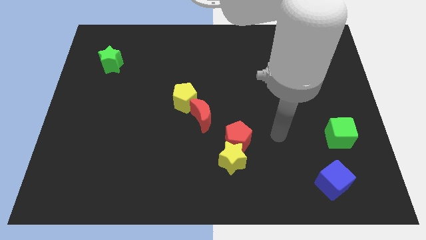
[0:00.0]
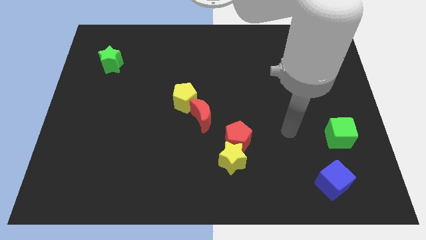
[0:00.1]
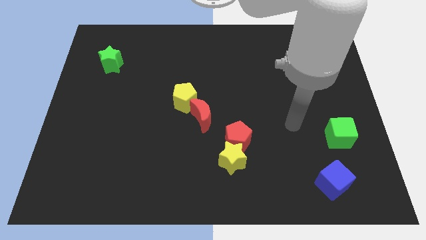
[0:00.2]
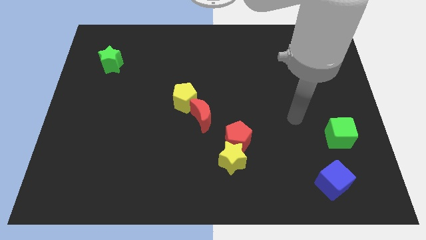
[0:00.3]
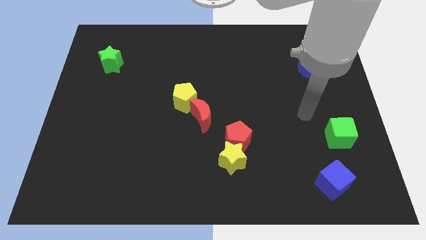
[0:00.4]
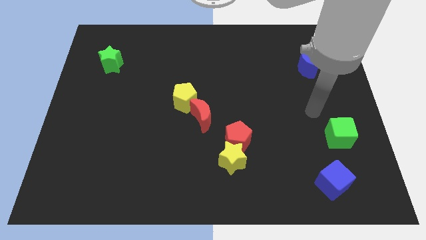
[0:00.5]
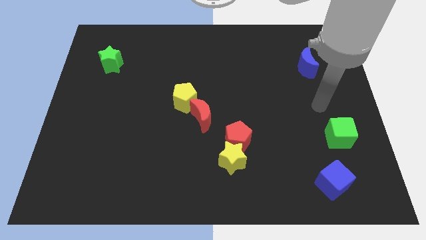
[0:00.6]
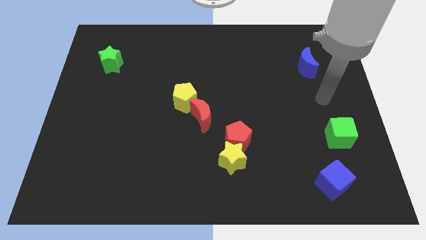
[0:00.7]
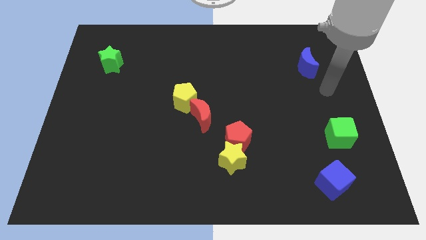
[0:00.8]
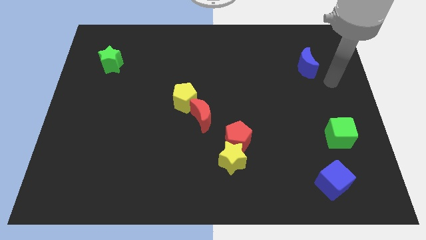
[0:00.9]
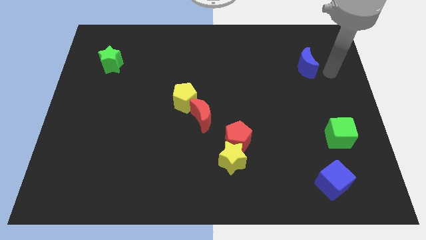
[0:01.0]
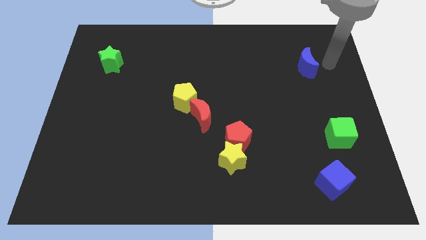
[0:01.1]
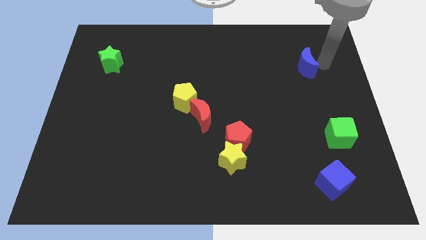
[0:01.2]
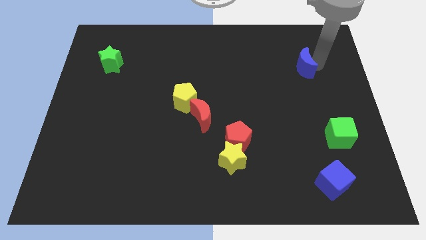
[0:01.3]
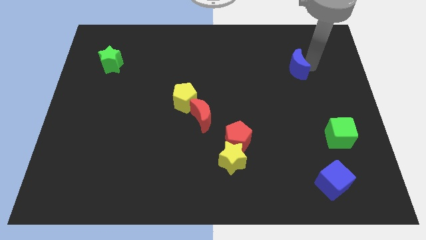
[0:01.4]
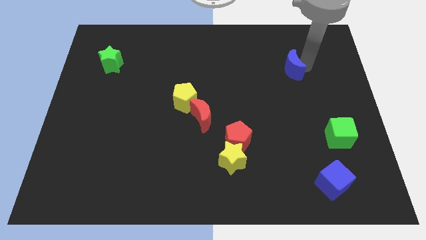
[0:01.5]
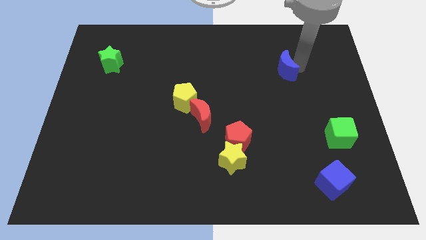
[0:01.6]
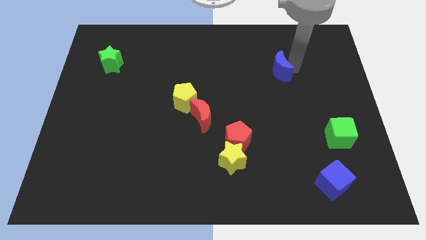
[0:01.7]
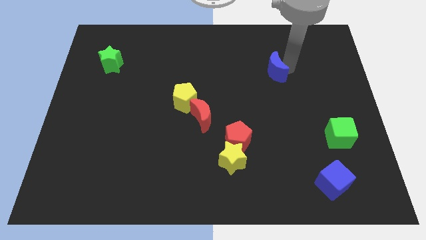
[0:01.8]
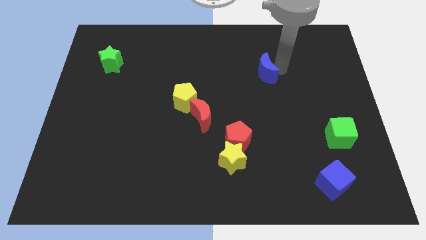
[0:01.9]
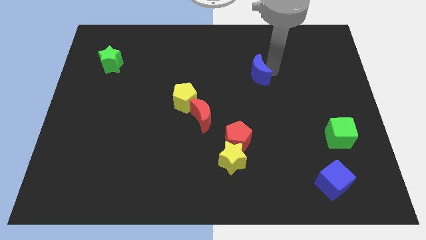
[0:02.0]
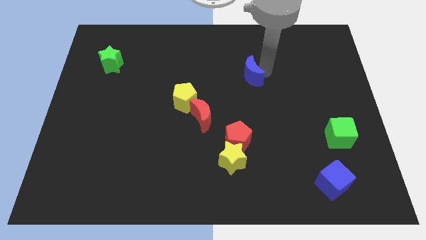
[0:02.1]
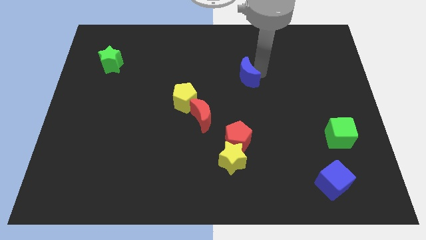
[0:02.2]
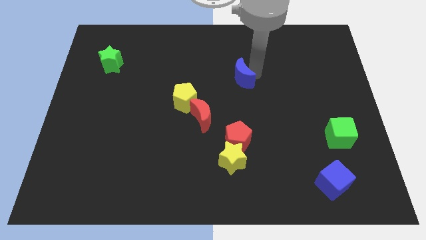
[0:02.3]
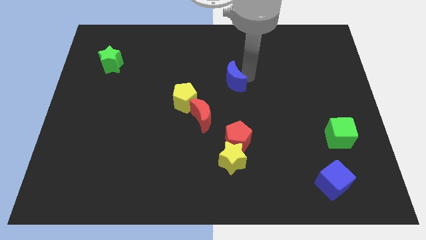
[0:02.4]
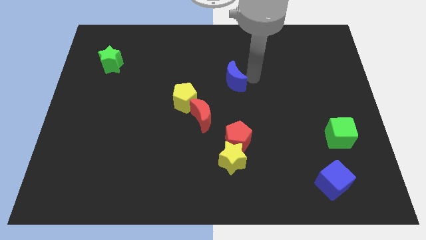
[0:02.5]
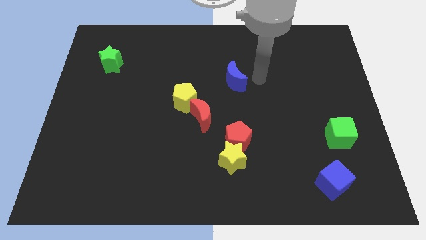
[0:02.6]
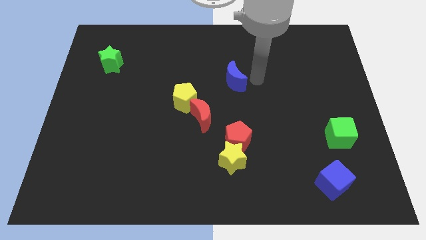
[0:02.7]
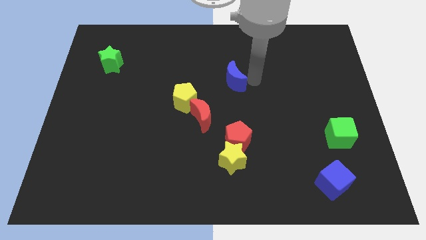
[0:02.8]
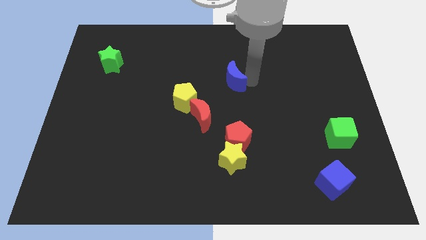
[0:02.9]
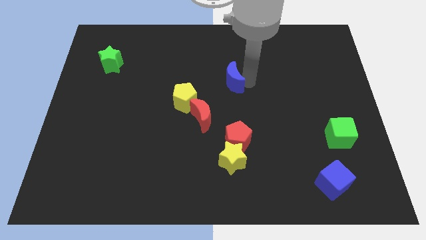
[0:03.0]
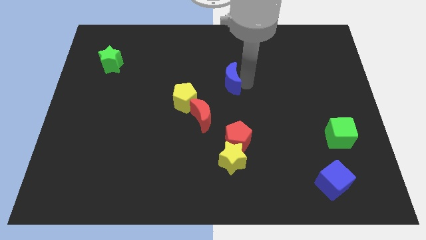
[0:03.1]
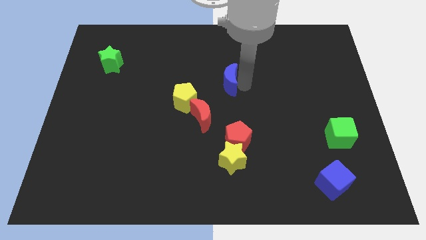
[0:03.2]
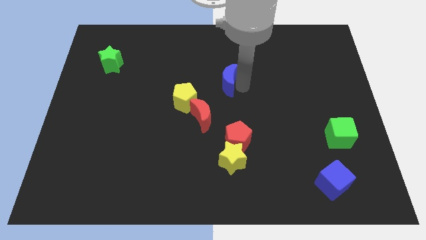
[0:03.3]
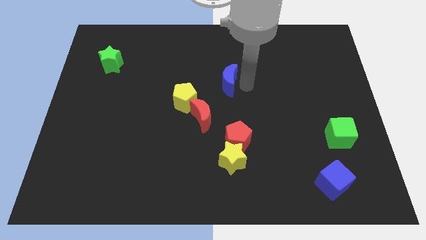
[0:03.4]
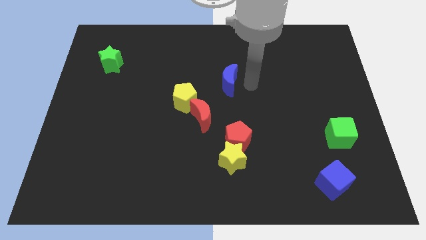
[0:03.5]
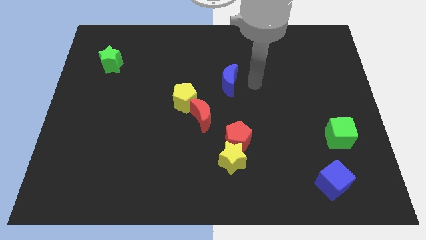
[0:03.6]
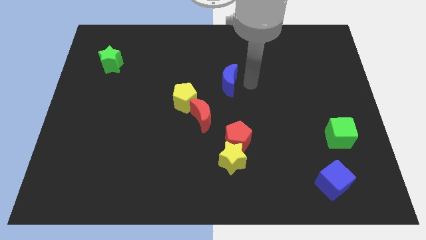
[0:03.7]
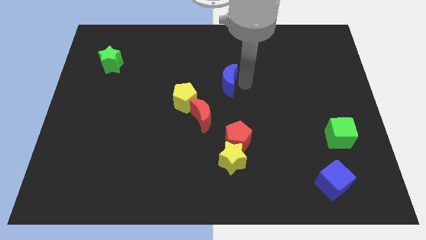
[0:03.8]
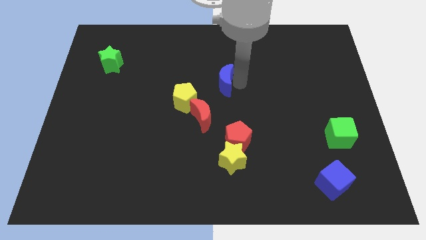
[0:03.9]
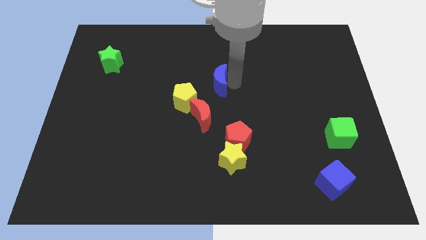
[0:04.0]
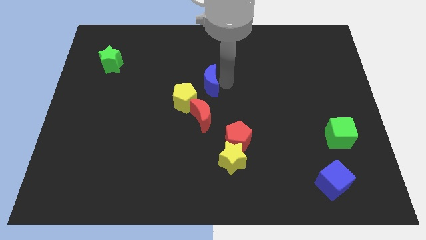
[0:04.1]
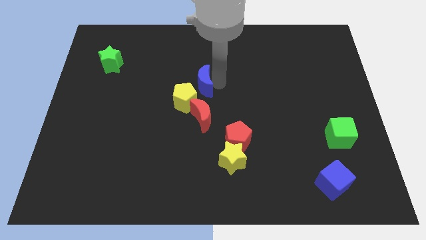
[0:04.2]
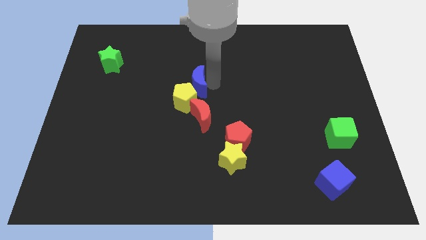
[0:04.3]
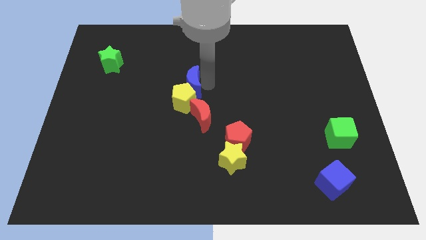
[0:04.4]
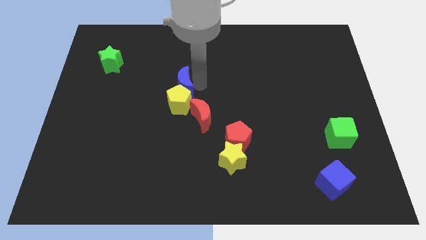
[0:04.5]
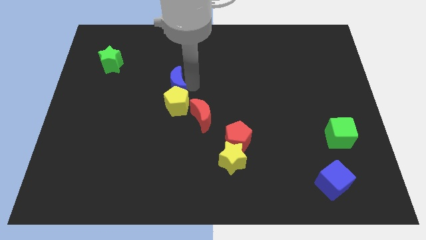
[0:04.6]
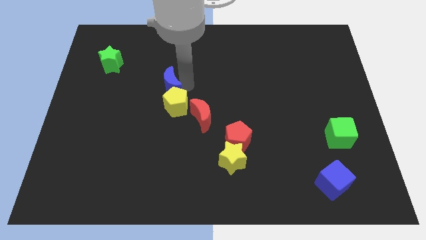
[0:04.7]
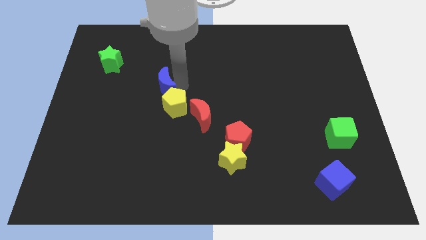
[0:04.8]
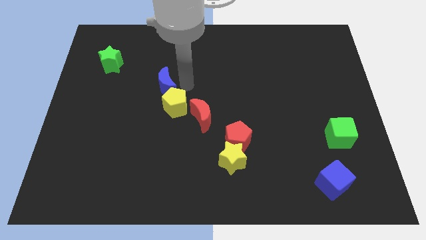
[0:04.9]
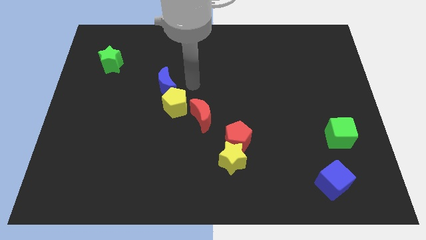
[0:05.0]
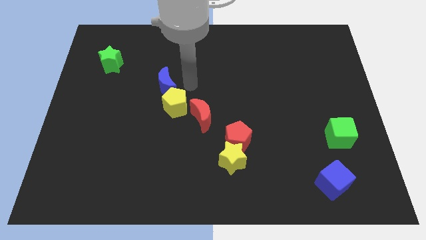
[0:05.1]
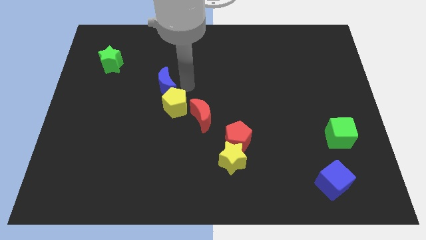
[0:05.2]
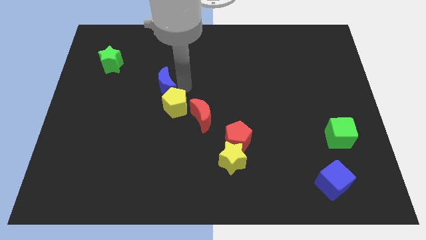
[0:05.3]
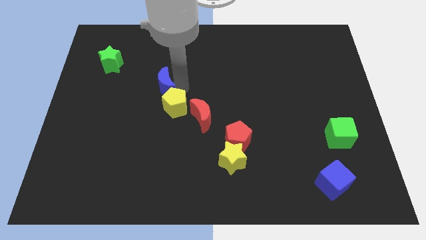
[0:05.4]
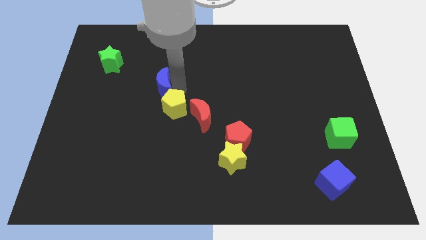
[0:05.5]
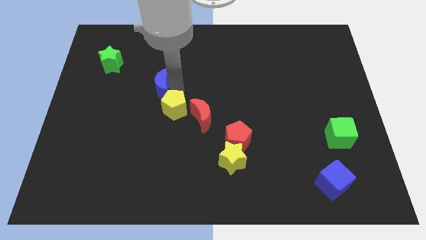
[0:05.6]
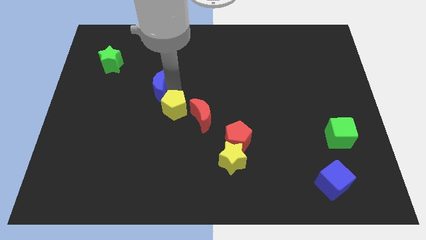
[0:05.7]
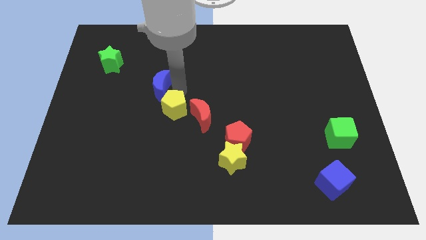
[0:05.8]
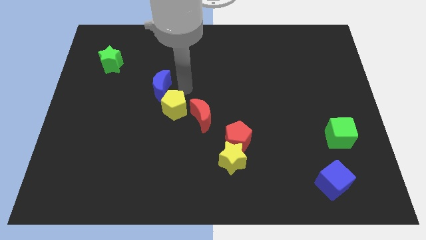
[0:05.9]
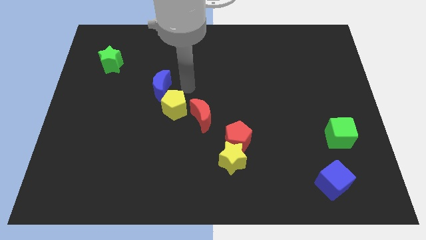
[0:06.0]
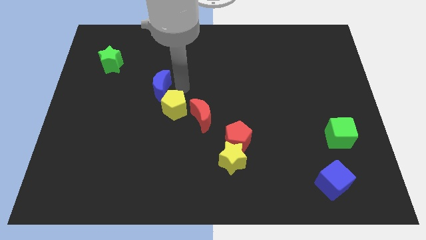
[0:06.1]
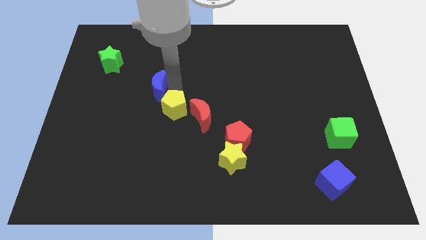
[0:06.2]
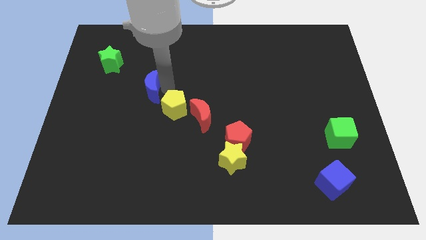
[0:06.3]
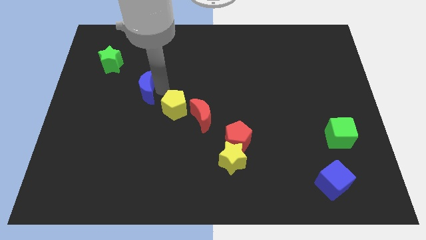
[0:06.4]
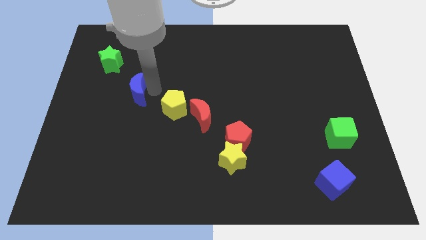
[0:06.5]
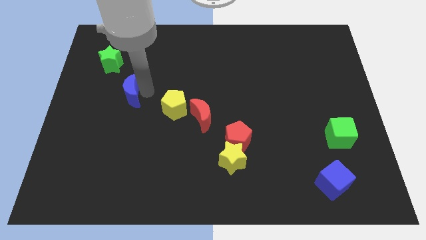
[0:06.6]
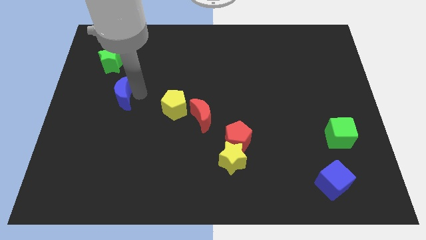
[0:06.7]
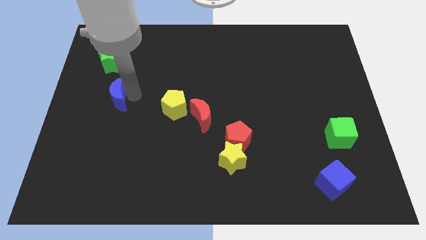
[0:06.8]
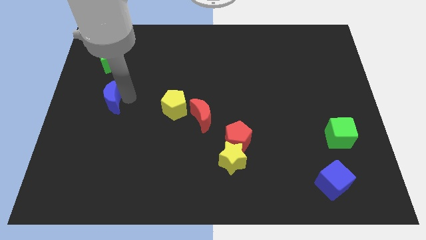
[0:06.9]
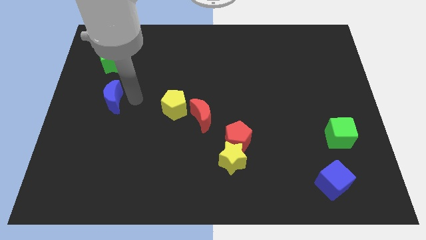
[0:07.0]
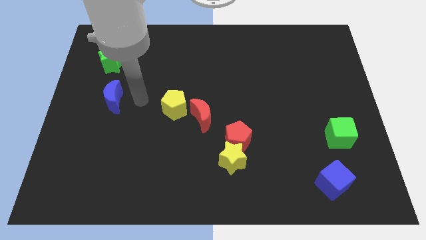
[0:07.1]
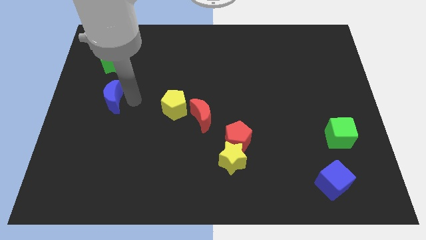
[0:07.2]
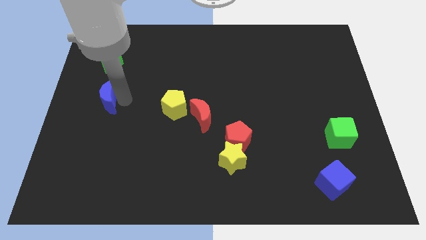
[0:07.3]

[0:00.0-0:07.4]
slide the blue moon to the center left
